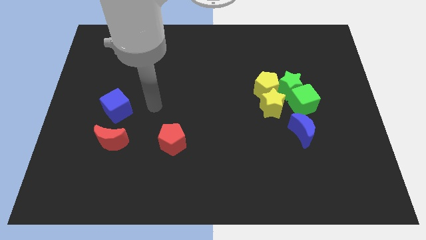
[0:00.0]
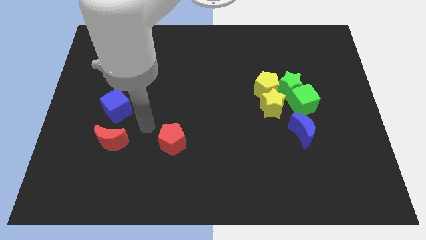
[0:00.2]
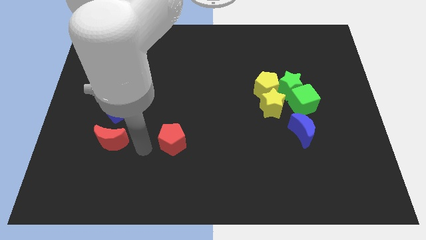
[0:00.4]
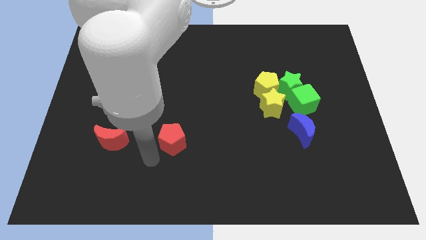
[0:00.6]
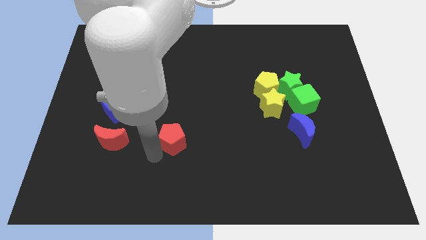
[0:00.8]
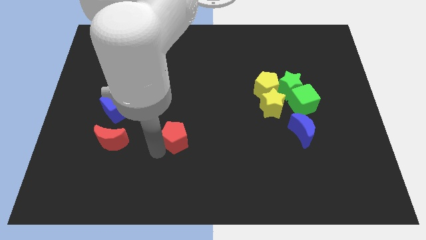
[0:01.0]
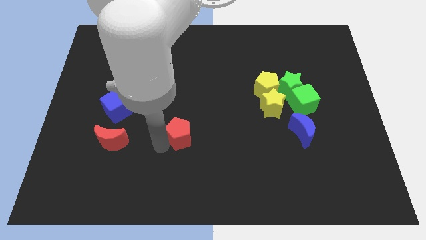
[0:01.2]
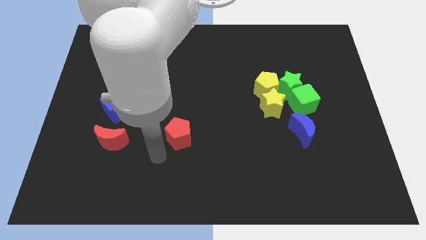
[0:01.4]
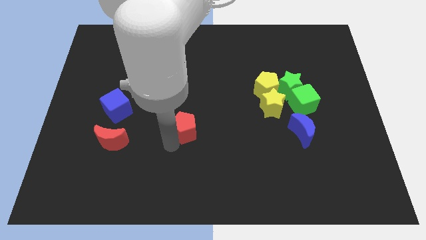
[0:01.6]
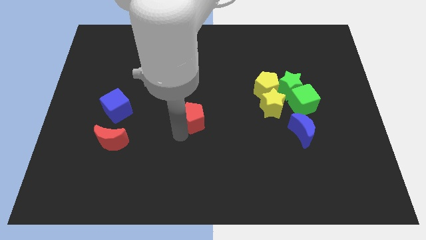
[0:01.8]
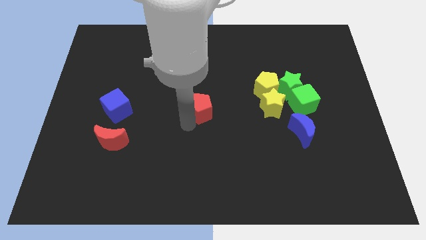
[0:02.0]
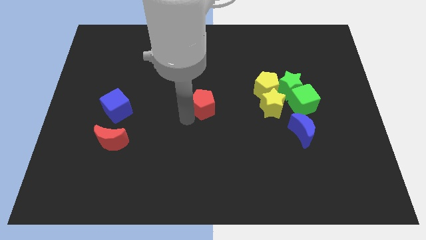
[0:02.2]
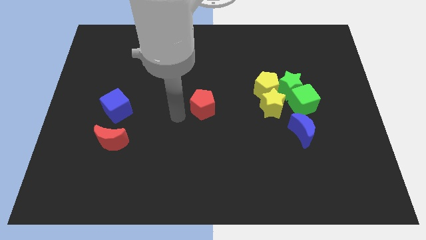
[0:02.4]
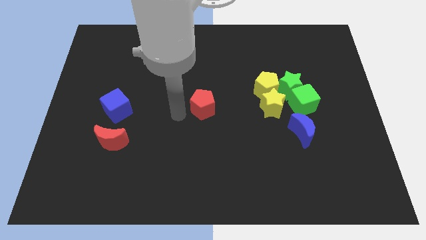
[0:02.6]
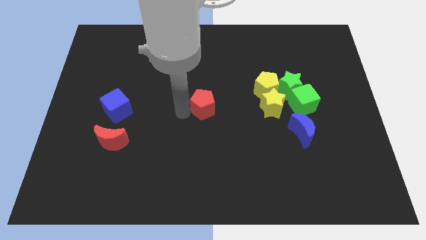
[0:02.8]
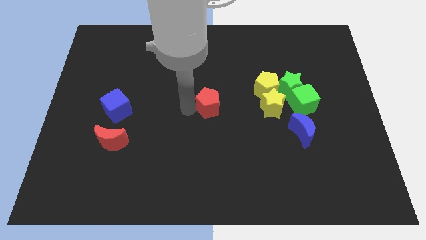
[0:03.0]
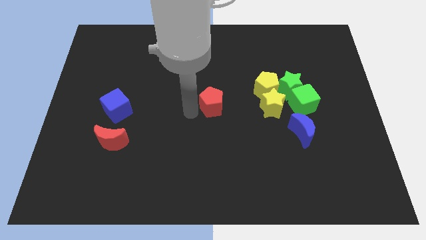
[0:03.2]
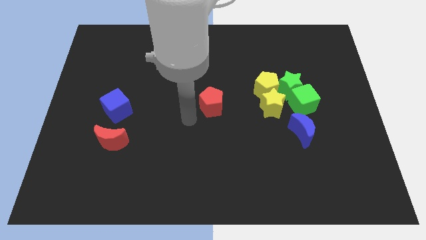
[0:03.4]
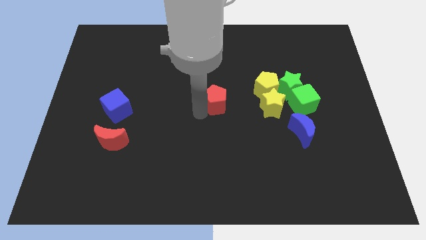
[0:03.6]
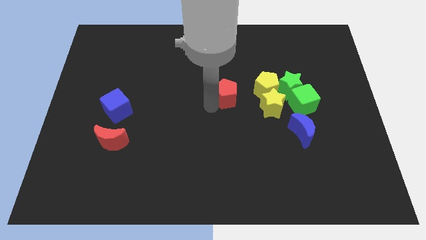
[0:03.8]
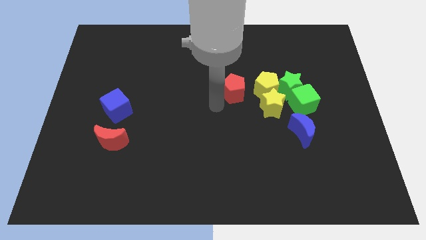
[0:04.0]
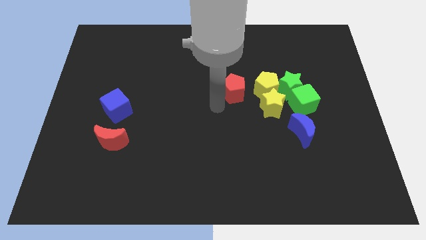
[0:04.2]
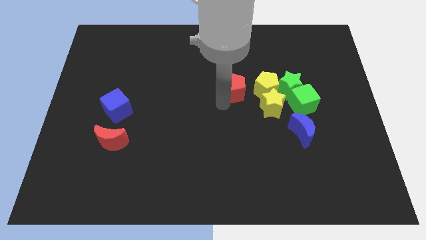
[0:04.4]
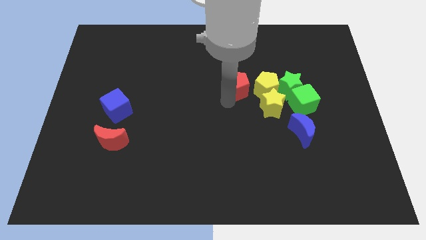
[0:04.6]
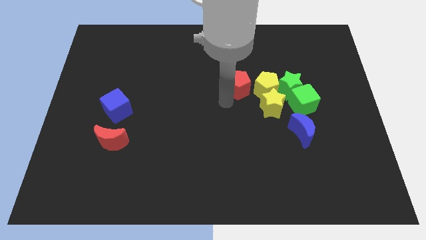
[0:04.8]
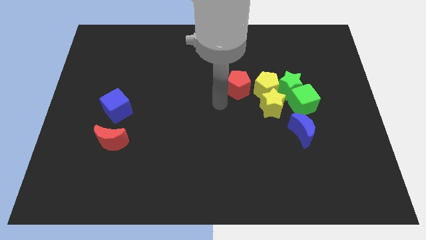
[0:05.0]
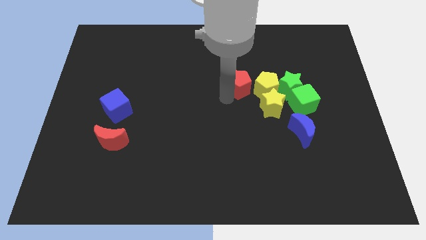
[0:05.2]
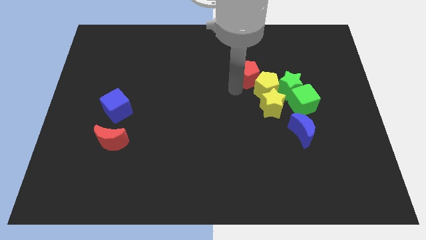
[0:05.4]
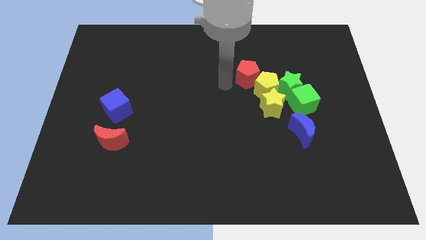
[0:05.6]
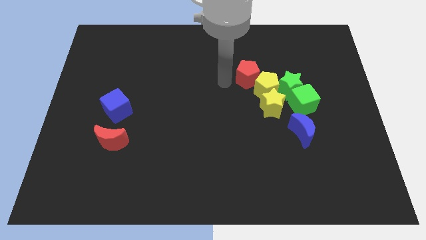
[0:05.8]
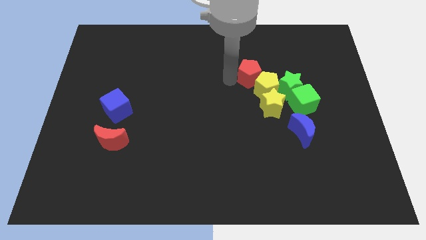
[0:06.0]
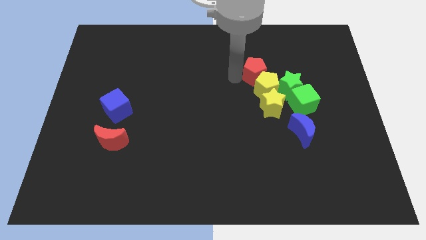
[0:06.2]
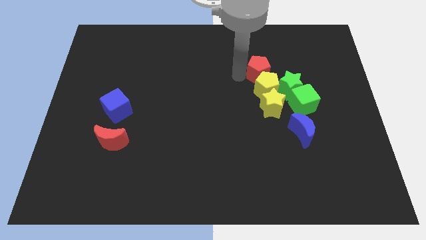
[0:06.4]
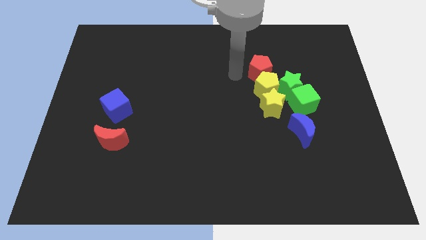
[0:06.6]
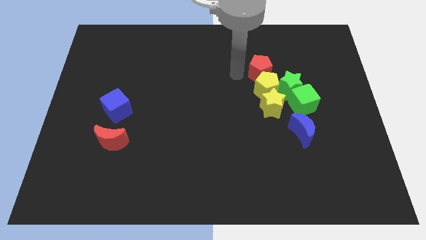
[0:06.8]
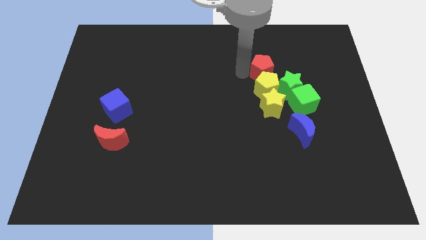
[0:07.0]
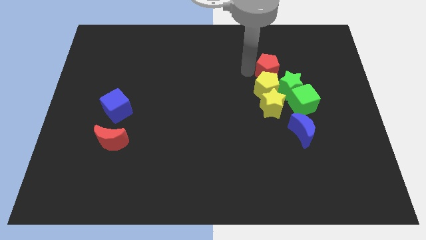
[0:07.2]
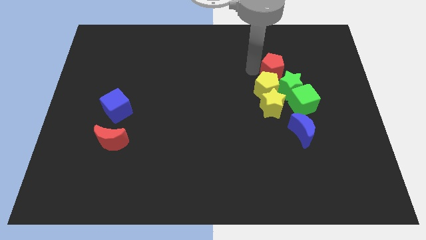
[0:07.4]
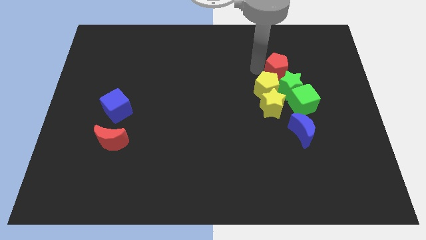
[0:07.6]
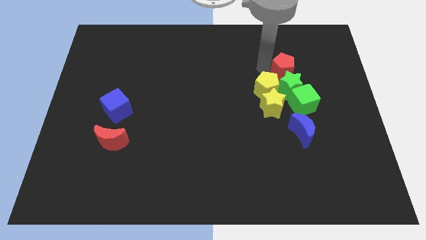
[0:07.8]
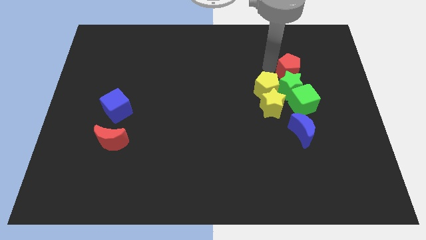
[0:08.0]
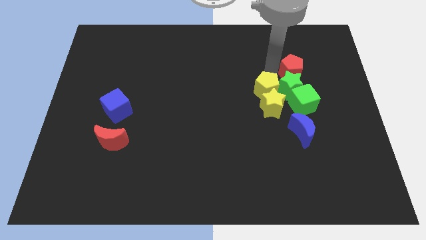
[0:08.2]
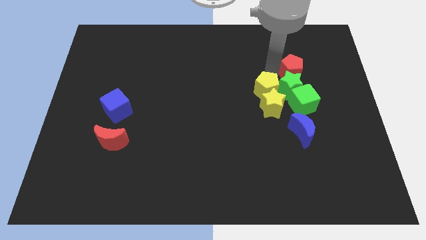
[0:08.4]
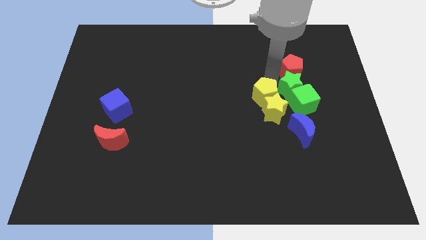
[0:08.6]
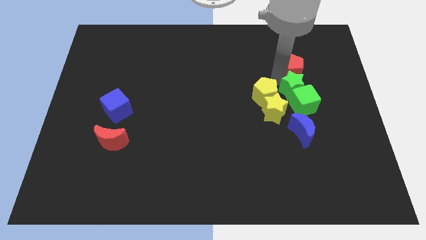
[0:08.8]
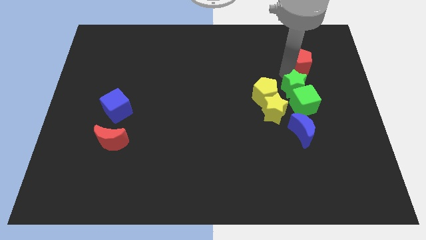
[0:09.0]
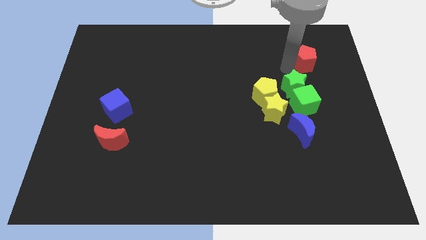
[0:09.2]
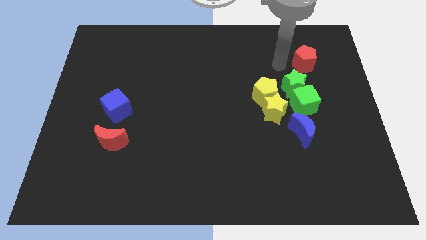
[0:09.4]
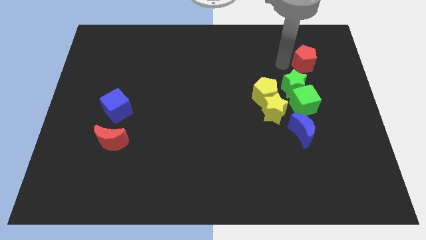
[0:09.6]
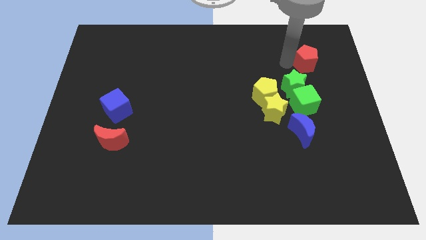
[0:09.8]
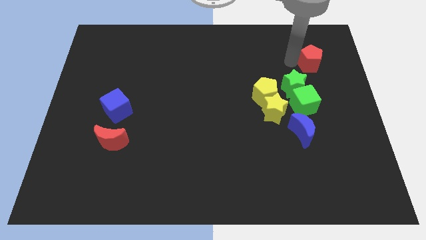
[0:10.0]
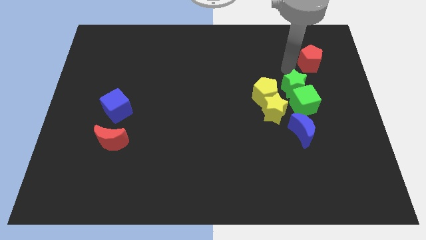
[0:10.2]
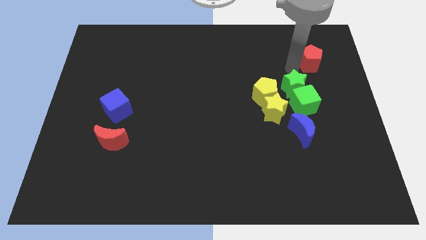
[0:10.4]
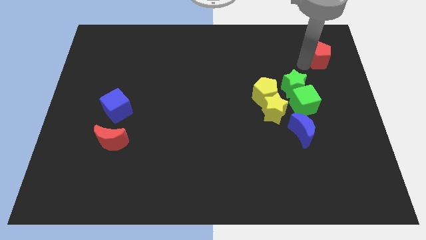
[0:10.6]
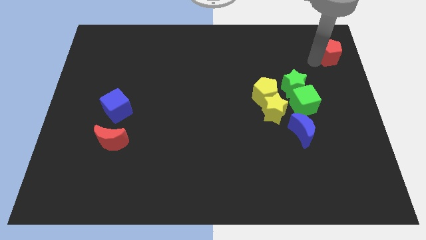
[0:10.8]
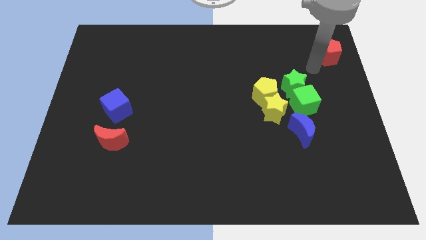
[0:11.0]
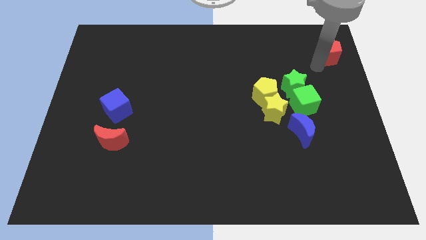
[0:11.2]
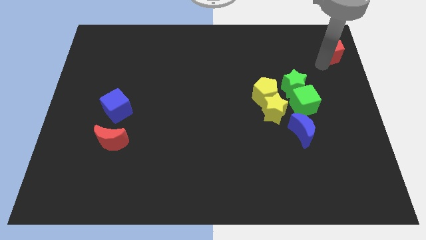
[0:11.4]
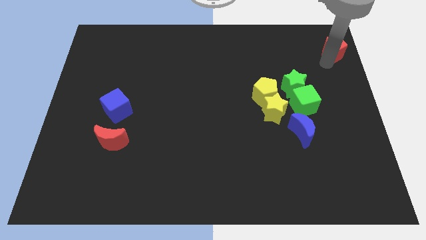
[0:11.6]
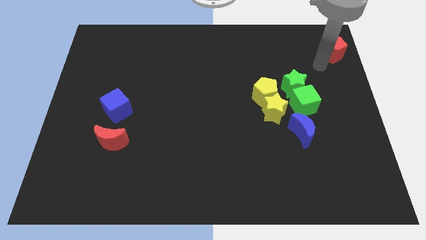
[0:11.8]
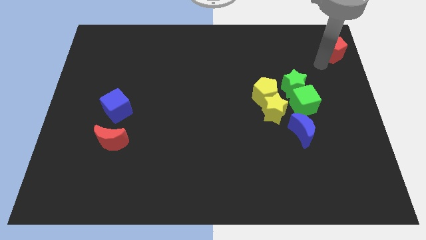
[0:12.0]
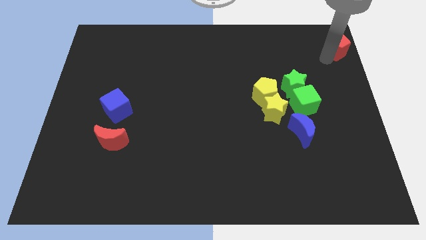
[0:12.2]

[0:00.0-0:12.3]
move the red pentagon to the top right corner
